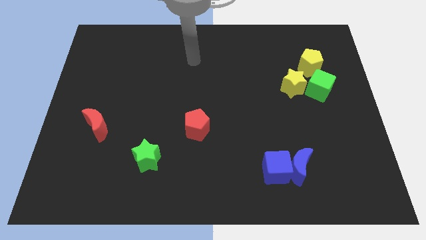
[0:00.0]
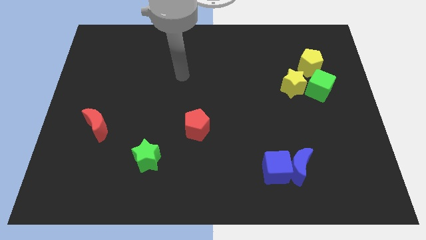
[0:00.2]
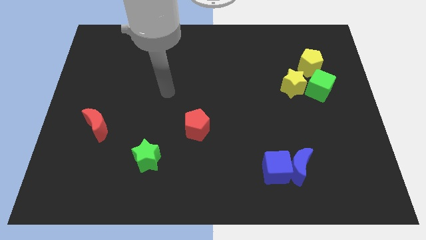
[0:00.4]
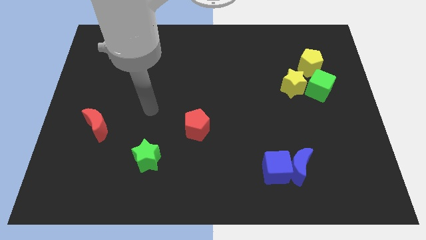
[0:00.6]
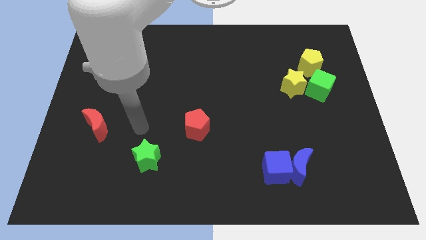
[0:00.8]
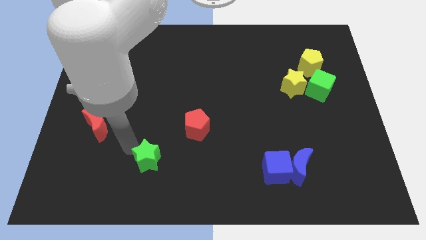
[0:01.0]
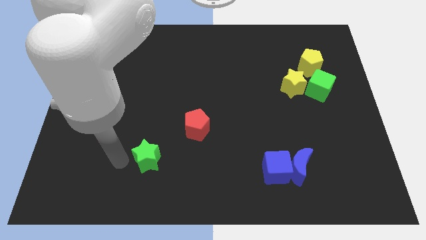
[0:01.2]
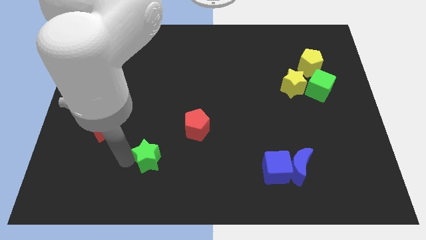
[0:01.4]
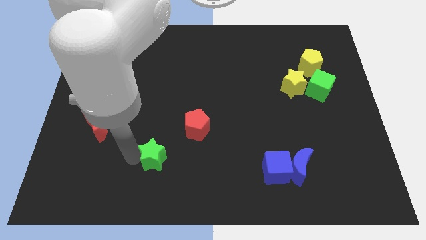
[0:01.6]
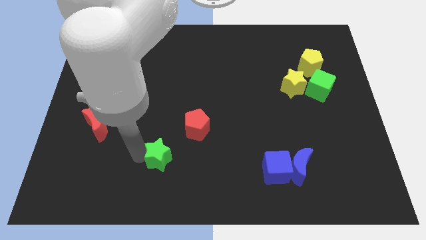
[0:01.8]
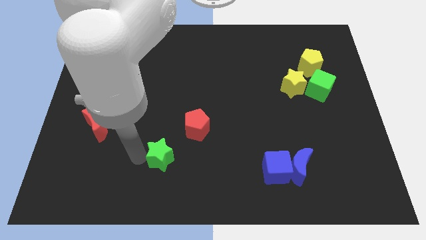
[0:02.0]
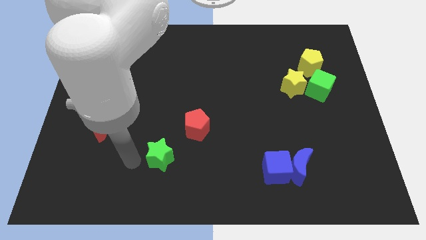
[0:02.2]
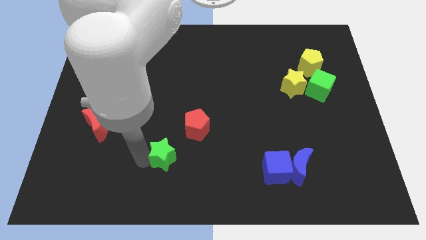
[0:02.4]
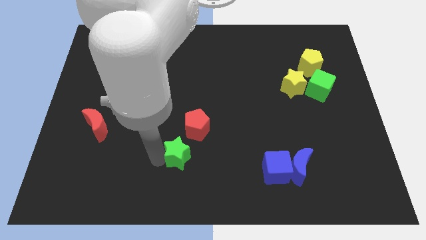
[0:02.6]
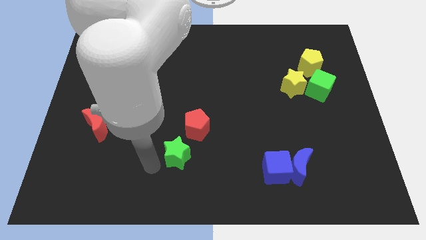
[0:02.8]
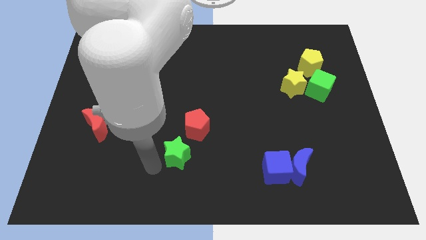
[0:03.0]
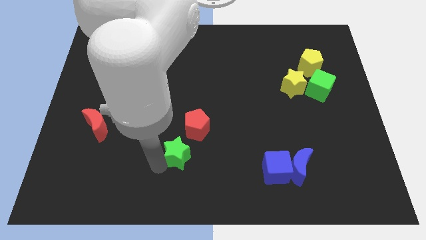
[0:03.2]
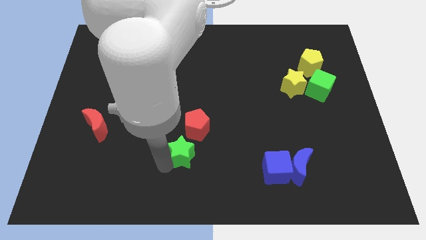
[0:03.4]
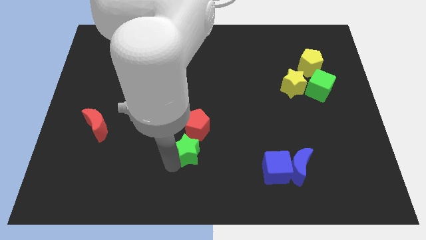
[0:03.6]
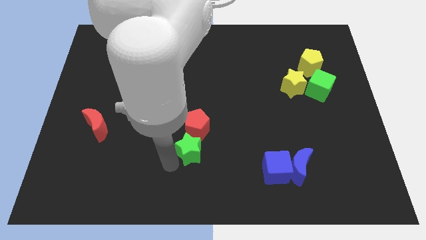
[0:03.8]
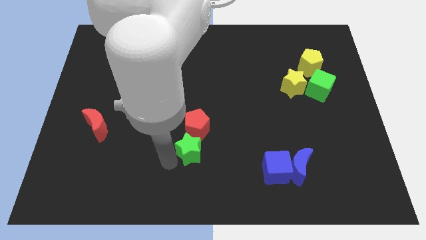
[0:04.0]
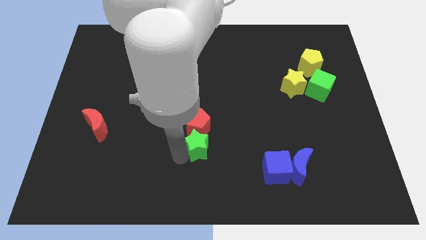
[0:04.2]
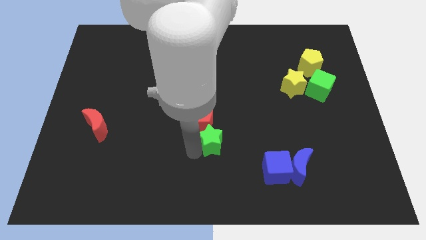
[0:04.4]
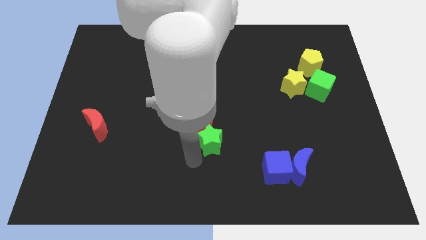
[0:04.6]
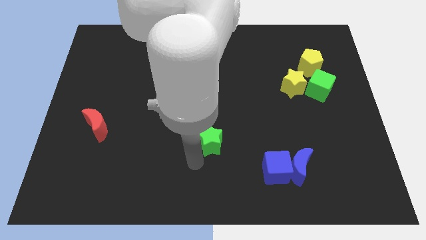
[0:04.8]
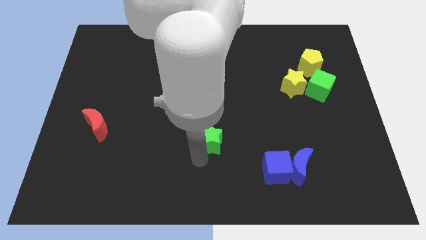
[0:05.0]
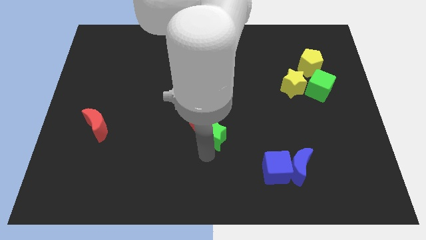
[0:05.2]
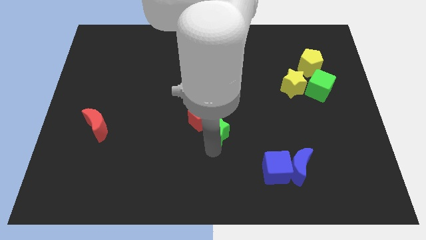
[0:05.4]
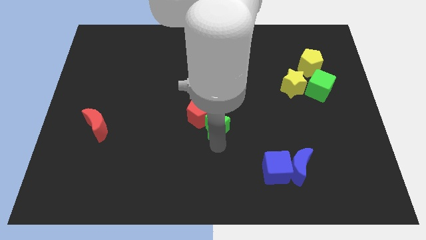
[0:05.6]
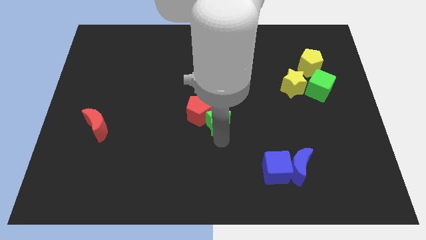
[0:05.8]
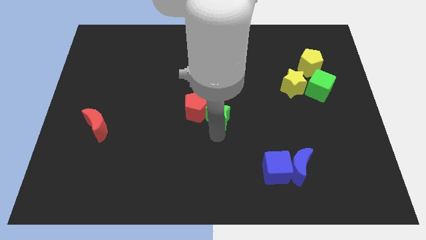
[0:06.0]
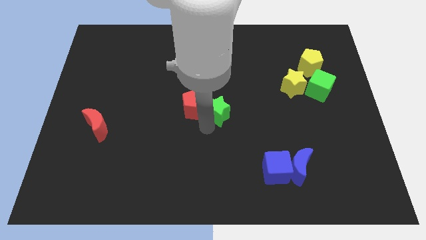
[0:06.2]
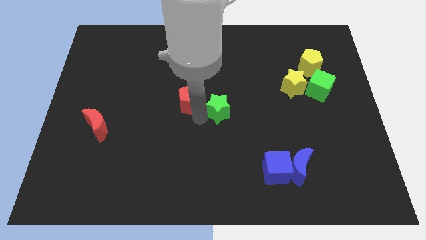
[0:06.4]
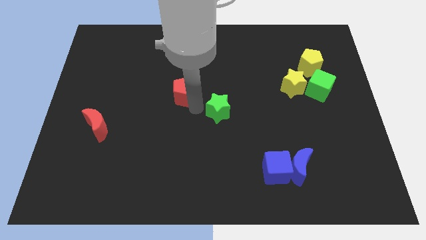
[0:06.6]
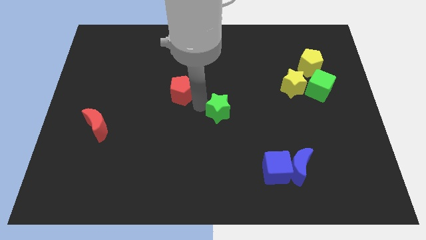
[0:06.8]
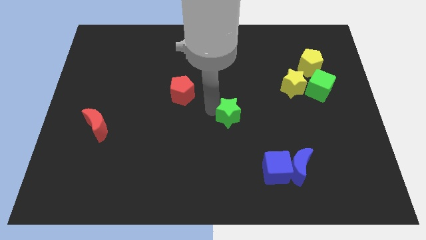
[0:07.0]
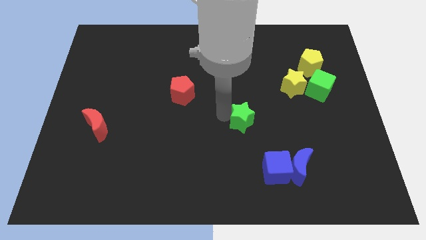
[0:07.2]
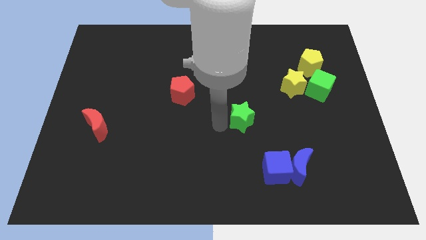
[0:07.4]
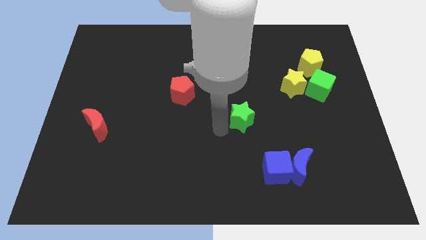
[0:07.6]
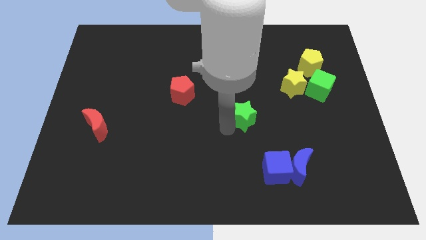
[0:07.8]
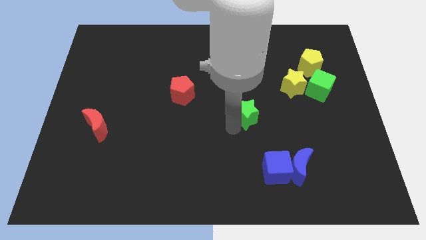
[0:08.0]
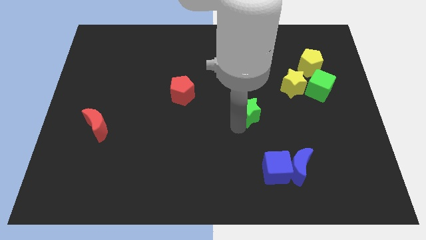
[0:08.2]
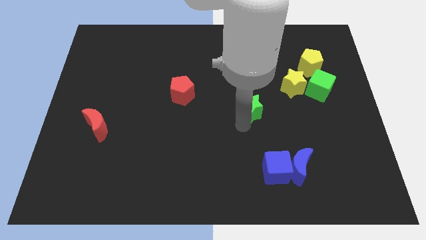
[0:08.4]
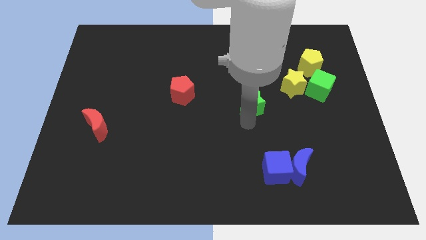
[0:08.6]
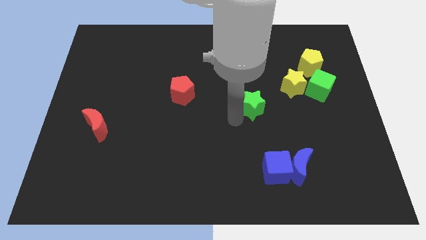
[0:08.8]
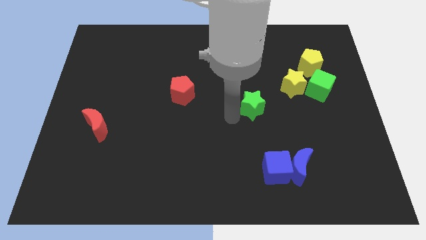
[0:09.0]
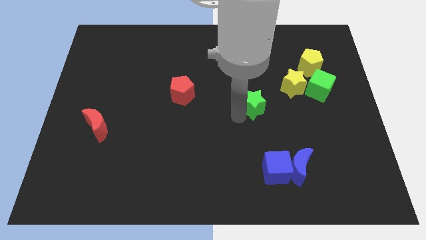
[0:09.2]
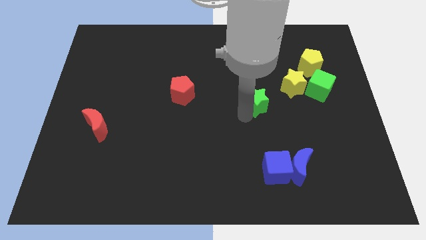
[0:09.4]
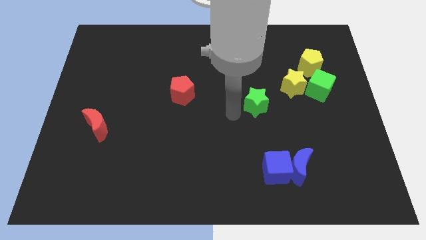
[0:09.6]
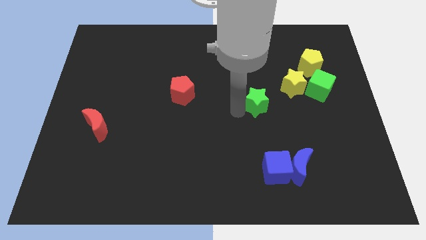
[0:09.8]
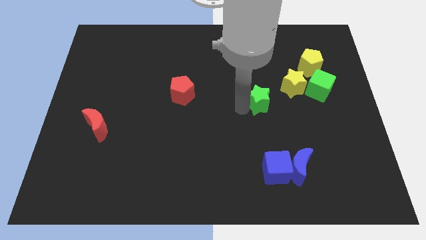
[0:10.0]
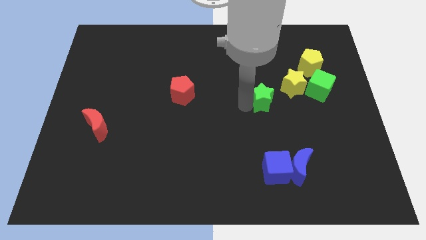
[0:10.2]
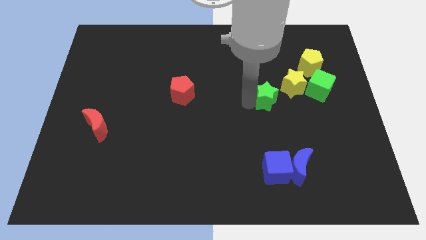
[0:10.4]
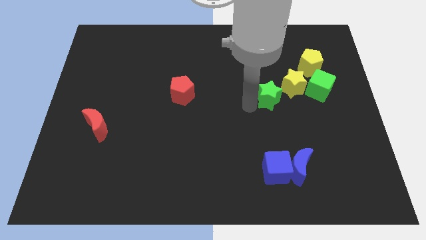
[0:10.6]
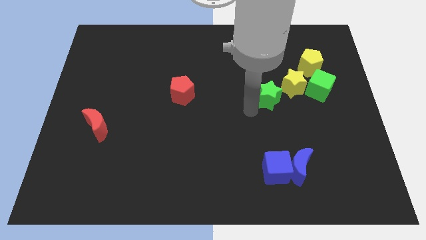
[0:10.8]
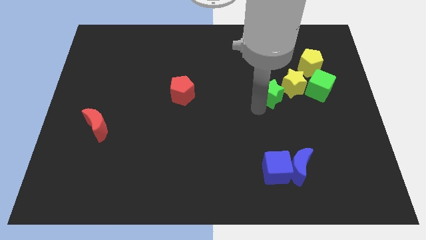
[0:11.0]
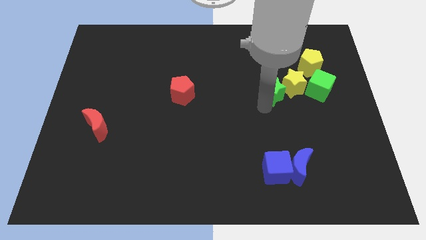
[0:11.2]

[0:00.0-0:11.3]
move the green star towards the yellow star

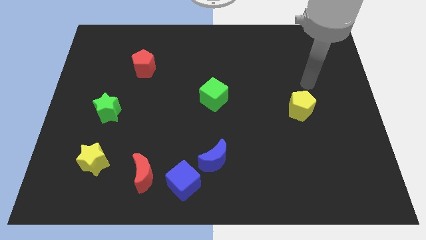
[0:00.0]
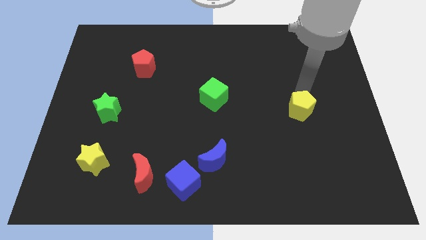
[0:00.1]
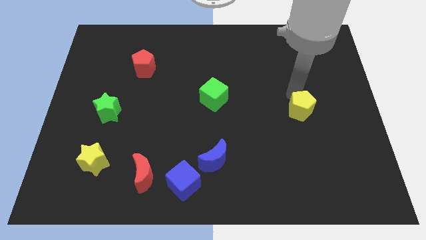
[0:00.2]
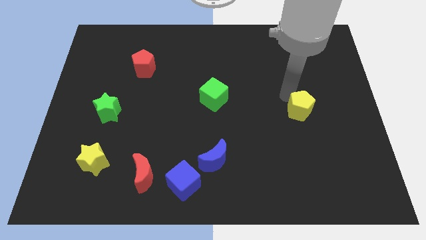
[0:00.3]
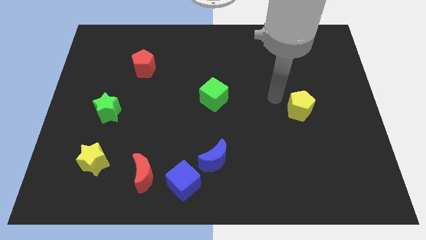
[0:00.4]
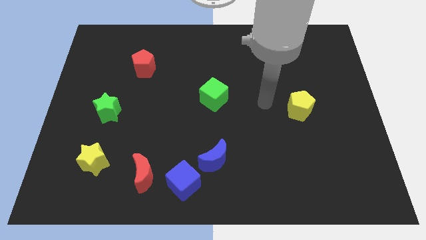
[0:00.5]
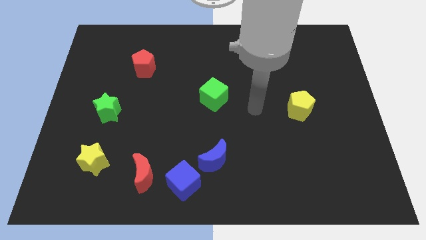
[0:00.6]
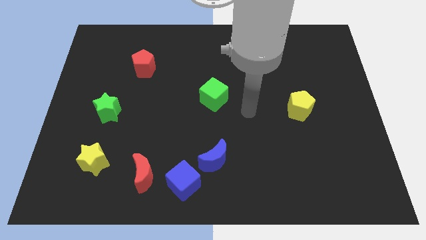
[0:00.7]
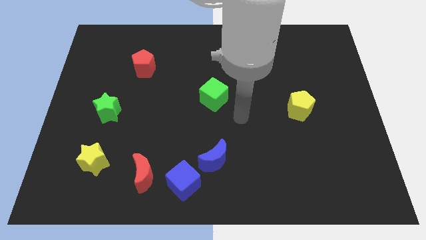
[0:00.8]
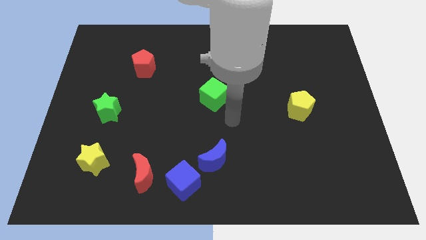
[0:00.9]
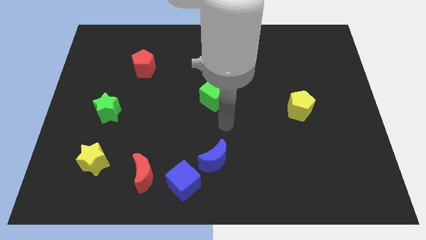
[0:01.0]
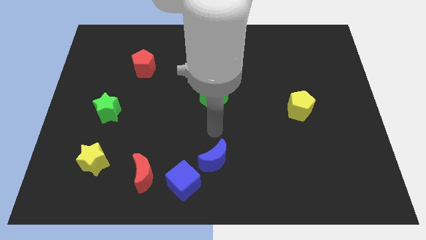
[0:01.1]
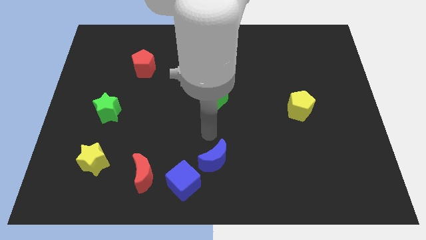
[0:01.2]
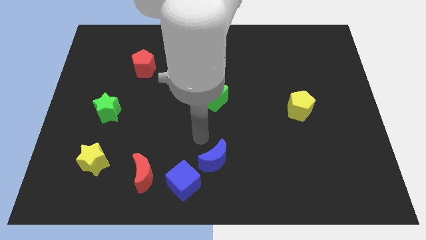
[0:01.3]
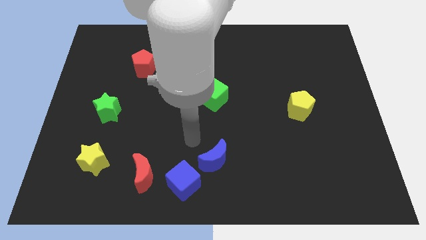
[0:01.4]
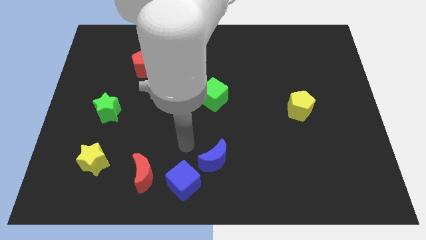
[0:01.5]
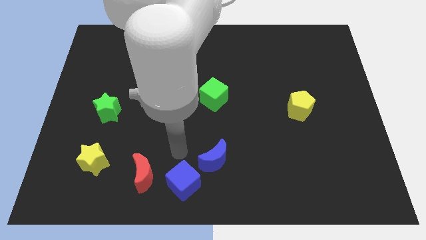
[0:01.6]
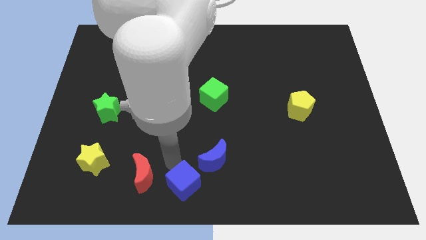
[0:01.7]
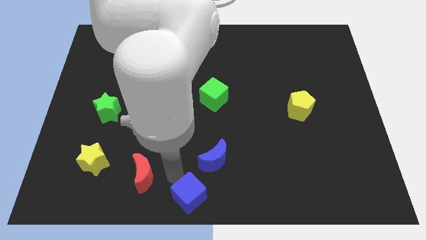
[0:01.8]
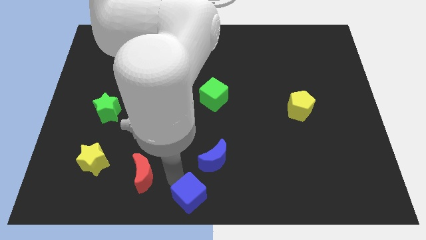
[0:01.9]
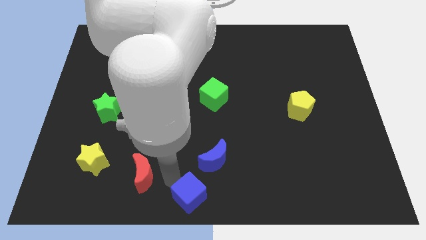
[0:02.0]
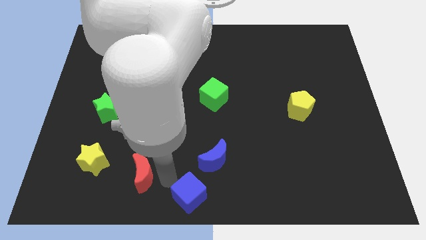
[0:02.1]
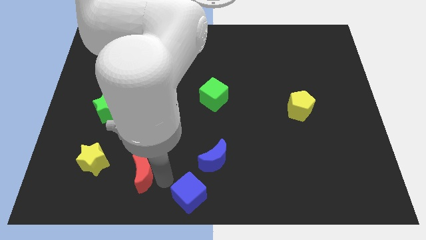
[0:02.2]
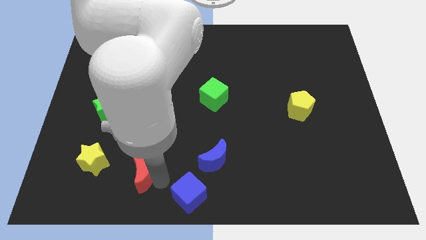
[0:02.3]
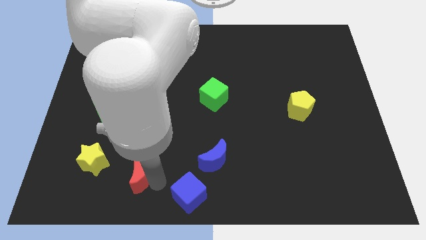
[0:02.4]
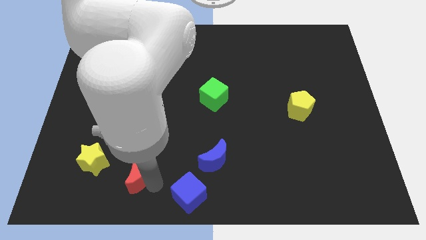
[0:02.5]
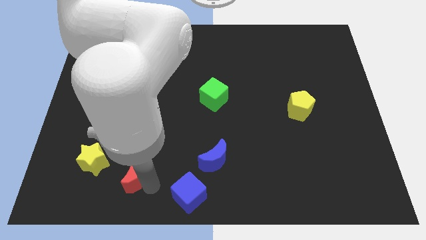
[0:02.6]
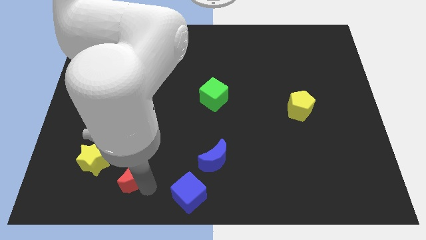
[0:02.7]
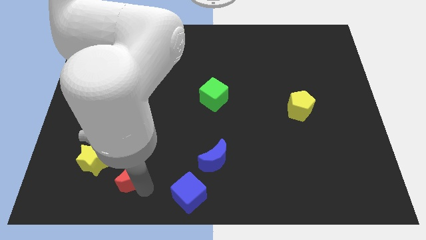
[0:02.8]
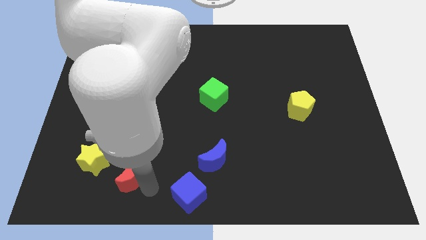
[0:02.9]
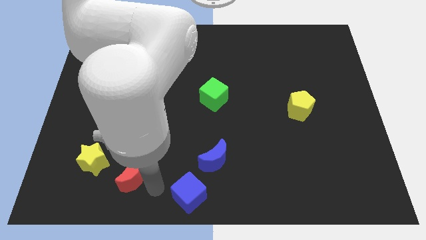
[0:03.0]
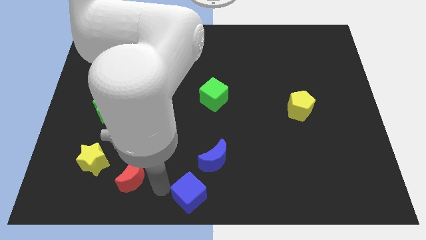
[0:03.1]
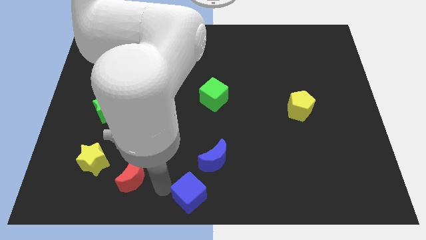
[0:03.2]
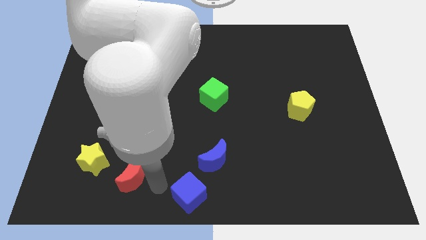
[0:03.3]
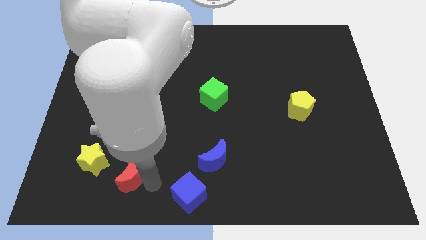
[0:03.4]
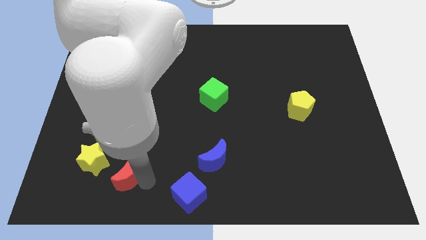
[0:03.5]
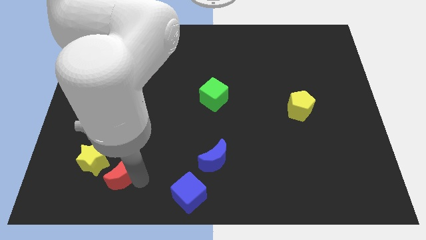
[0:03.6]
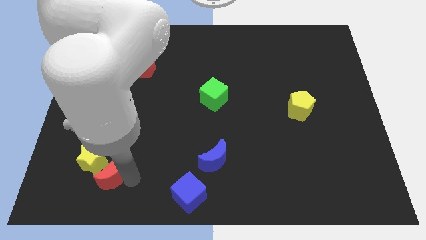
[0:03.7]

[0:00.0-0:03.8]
put the red moon towards the yellow star
